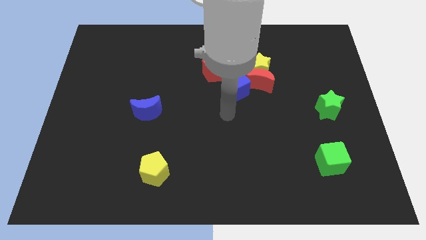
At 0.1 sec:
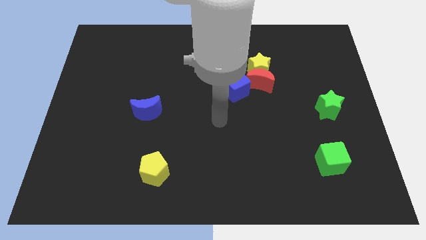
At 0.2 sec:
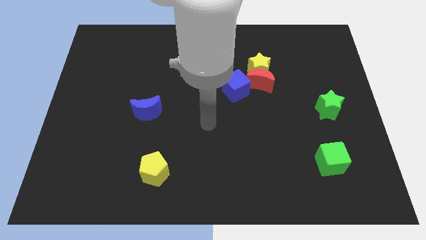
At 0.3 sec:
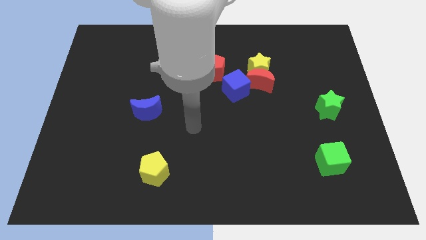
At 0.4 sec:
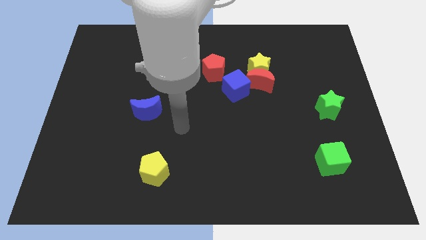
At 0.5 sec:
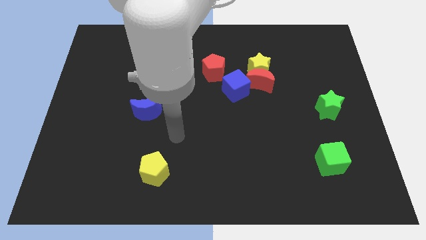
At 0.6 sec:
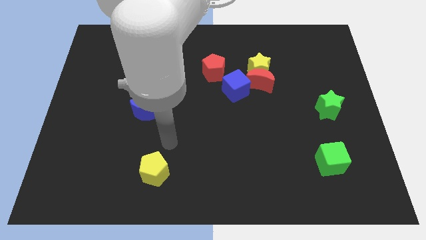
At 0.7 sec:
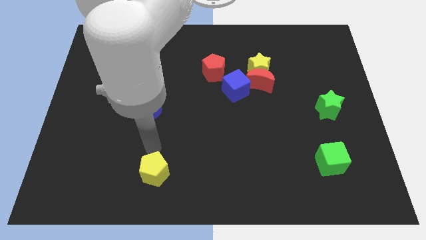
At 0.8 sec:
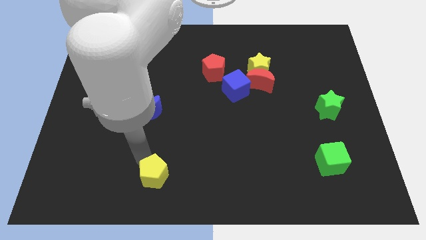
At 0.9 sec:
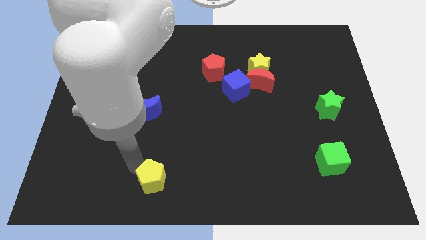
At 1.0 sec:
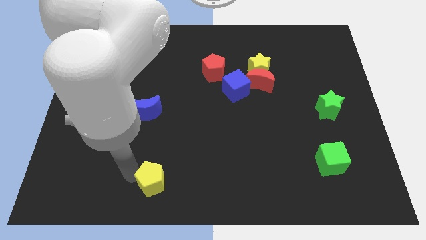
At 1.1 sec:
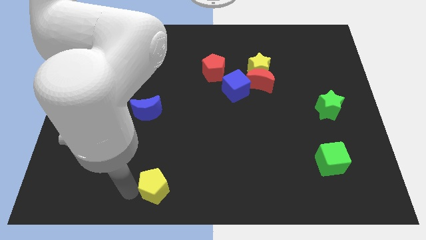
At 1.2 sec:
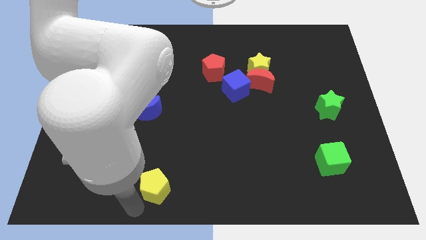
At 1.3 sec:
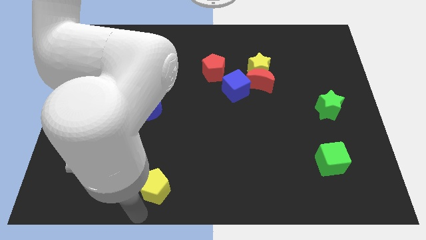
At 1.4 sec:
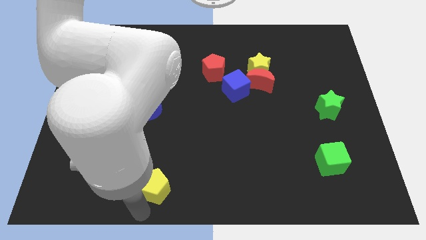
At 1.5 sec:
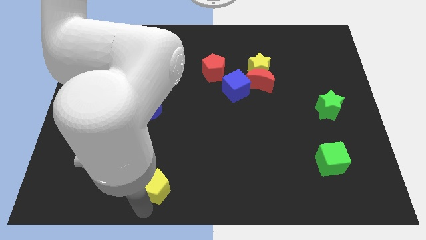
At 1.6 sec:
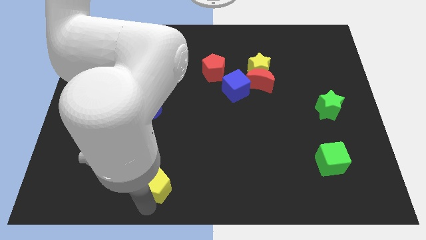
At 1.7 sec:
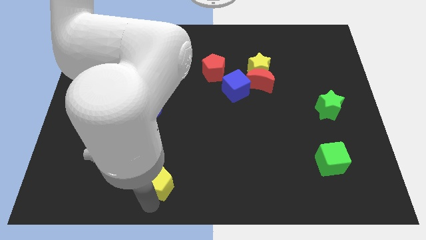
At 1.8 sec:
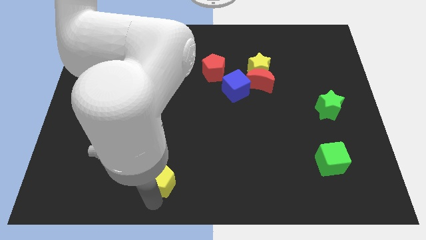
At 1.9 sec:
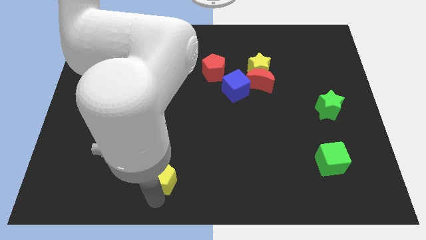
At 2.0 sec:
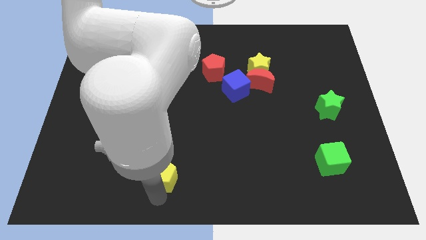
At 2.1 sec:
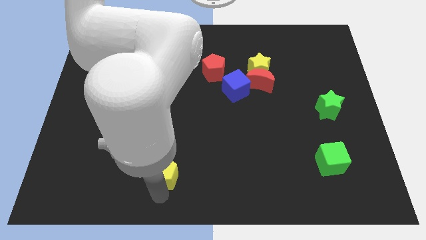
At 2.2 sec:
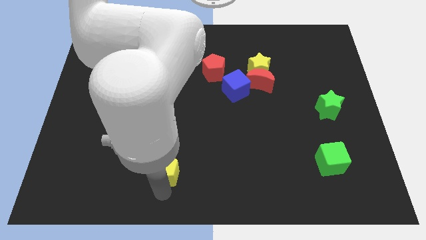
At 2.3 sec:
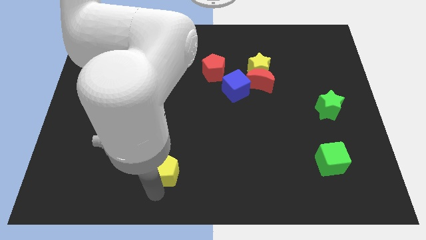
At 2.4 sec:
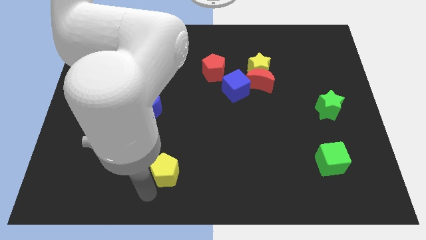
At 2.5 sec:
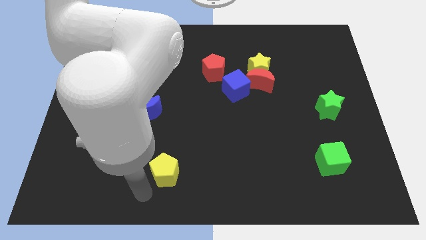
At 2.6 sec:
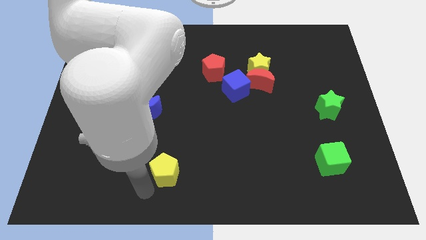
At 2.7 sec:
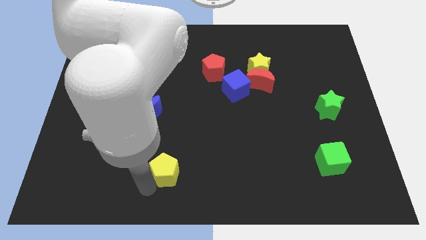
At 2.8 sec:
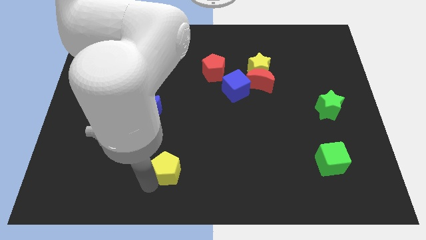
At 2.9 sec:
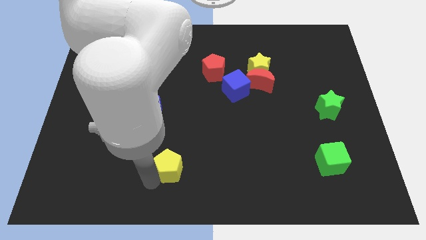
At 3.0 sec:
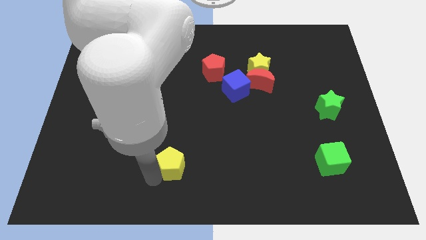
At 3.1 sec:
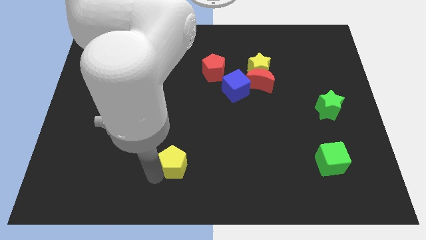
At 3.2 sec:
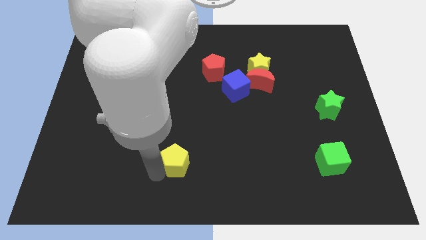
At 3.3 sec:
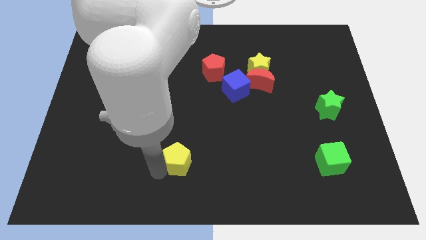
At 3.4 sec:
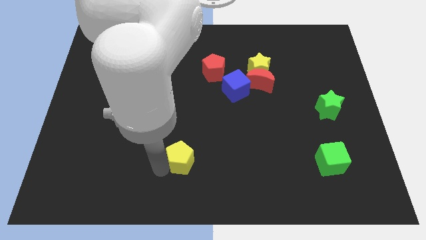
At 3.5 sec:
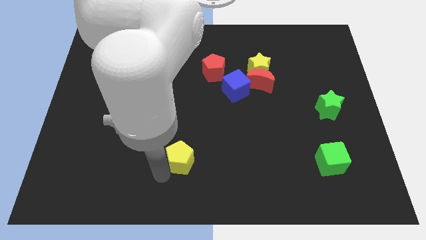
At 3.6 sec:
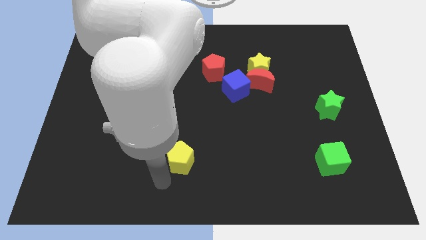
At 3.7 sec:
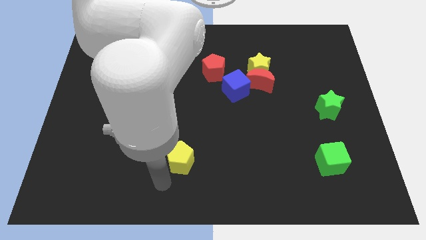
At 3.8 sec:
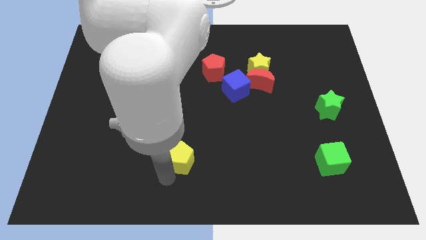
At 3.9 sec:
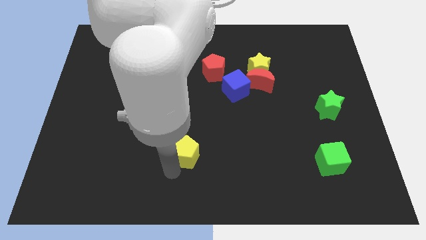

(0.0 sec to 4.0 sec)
slightly push the yellow pentagon upwards and to the right diagonally

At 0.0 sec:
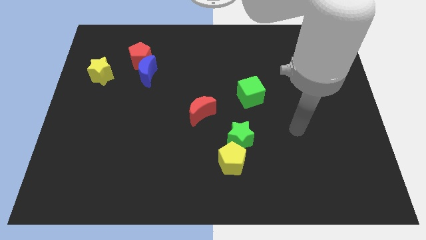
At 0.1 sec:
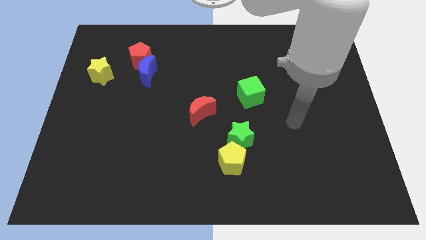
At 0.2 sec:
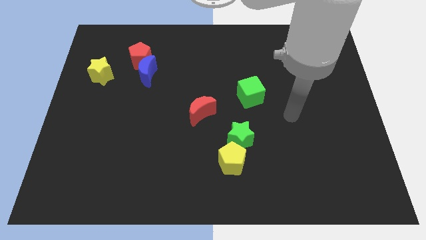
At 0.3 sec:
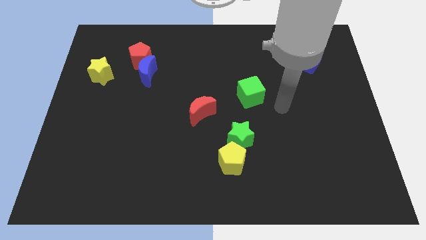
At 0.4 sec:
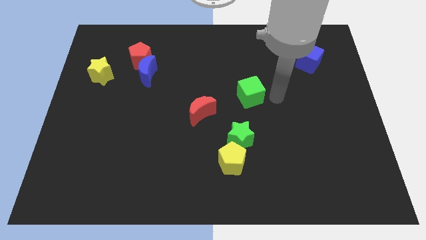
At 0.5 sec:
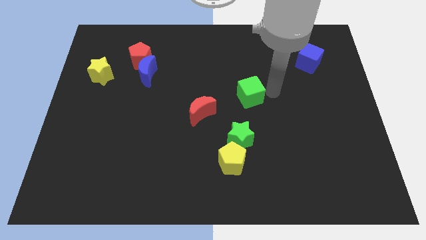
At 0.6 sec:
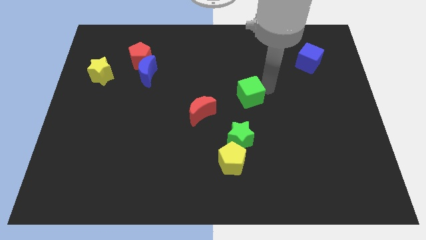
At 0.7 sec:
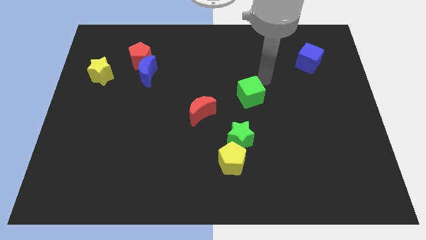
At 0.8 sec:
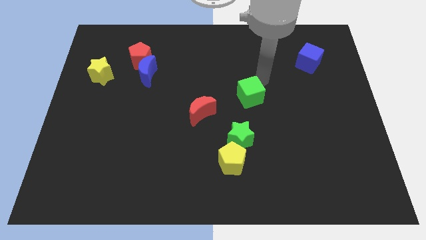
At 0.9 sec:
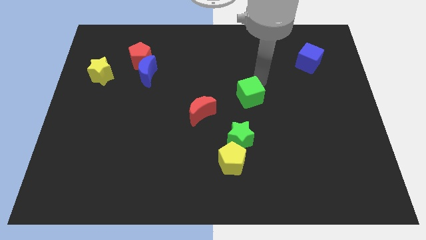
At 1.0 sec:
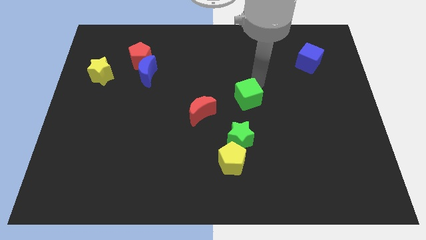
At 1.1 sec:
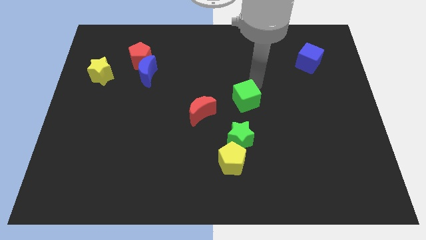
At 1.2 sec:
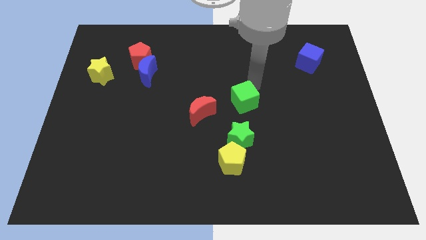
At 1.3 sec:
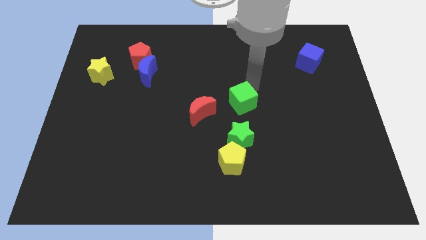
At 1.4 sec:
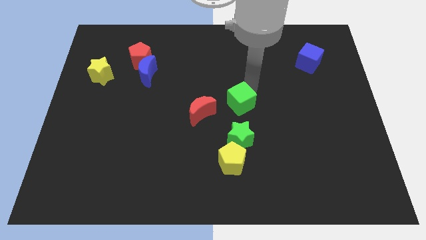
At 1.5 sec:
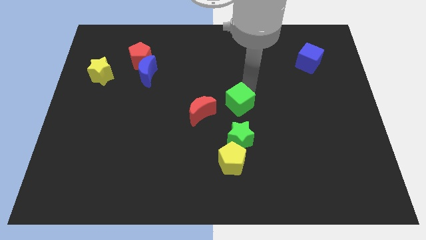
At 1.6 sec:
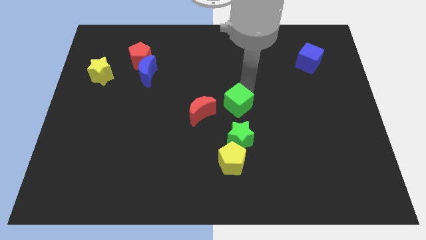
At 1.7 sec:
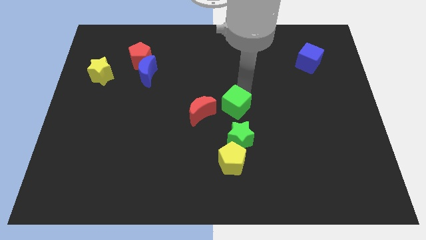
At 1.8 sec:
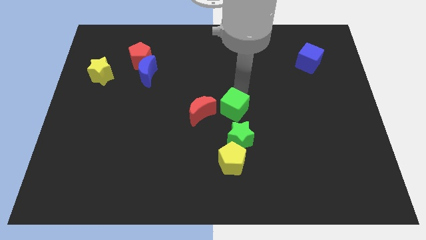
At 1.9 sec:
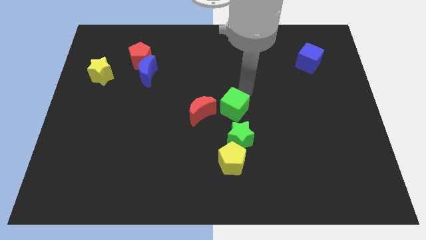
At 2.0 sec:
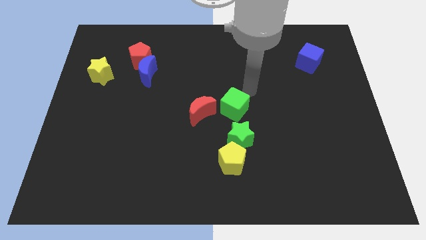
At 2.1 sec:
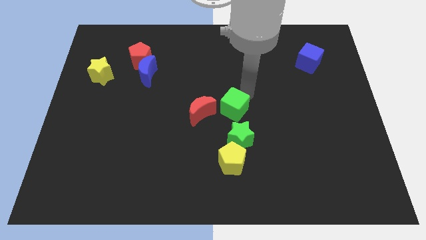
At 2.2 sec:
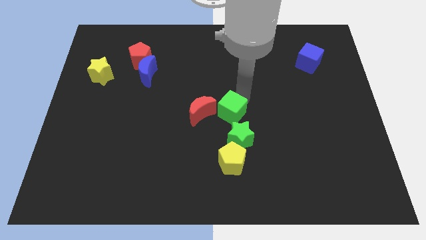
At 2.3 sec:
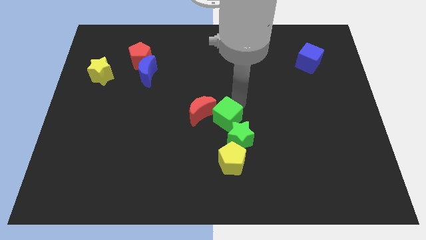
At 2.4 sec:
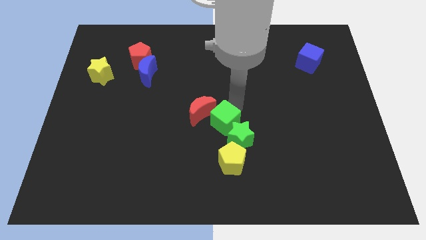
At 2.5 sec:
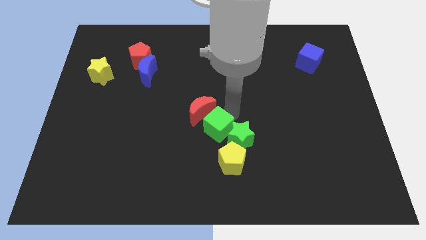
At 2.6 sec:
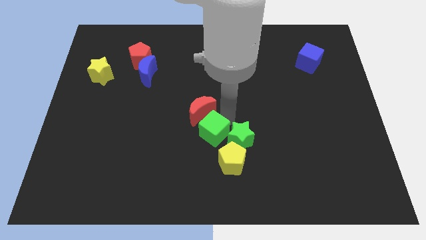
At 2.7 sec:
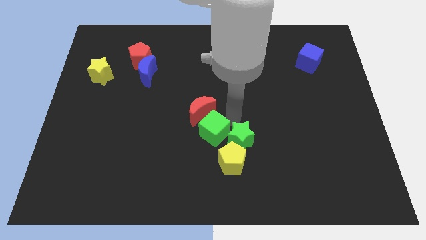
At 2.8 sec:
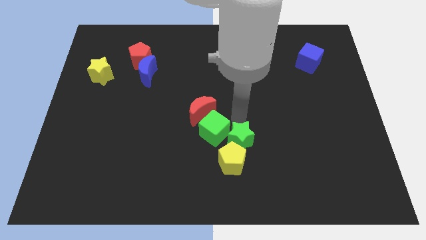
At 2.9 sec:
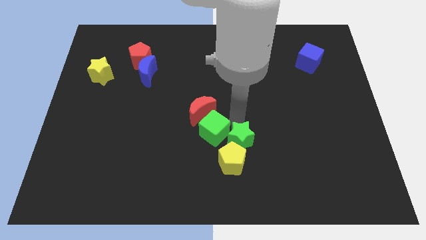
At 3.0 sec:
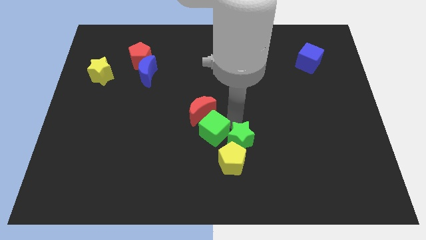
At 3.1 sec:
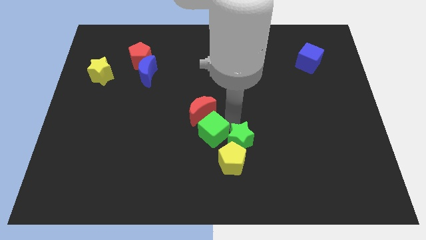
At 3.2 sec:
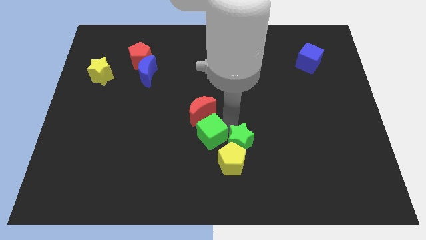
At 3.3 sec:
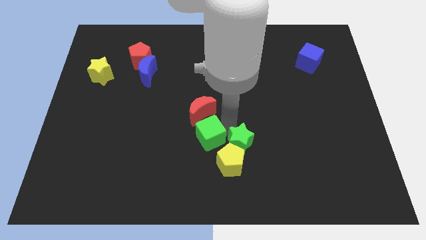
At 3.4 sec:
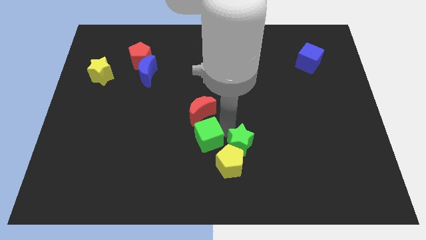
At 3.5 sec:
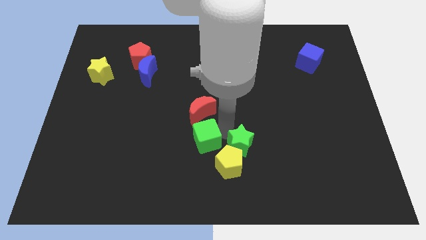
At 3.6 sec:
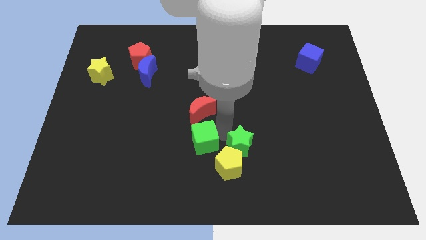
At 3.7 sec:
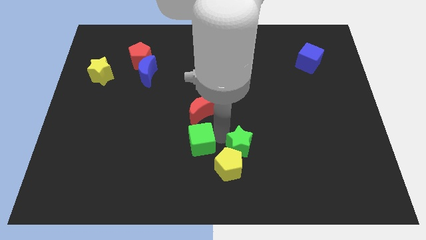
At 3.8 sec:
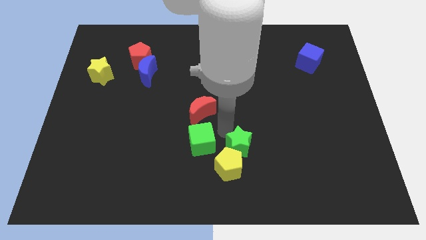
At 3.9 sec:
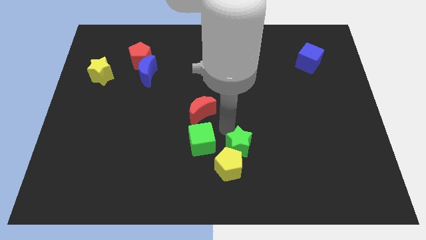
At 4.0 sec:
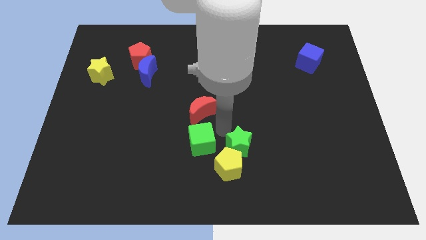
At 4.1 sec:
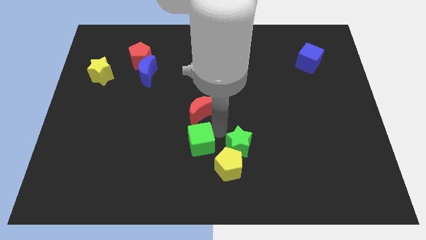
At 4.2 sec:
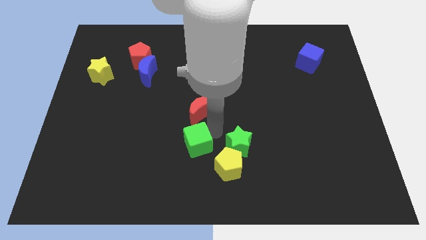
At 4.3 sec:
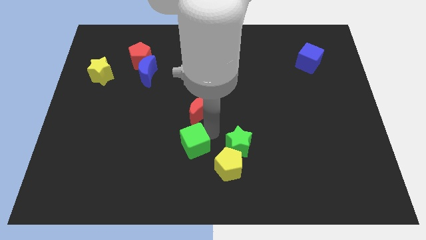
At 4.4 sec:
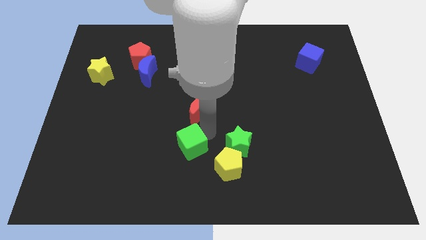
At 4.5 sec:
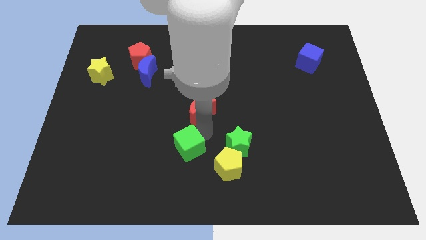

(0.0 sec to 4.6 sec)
push the green cube down and left diagonally
